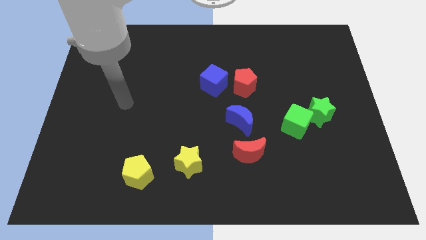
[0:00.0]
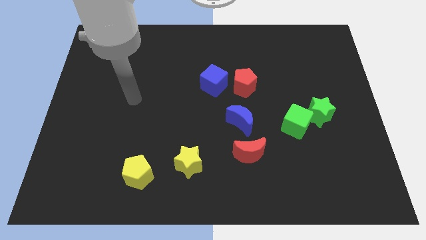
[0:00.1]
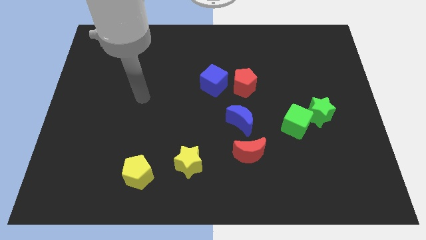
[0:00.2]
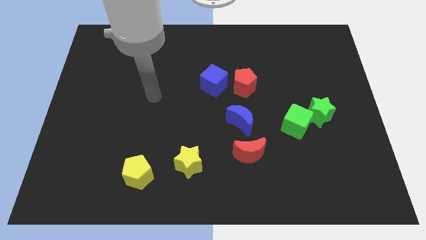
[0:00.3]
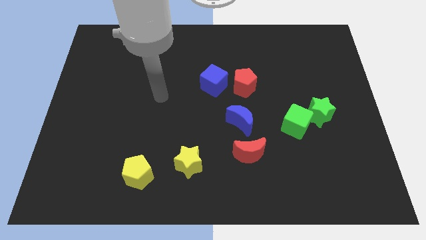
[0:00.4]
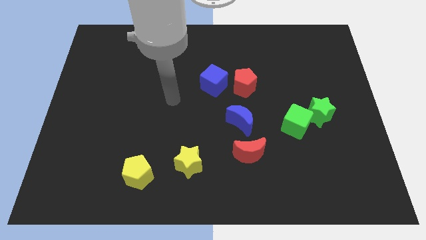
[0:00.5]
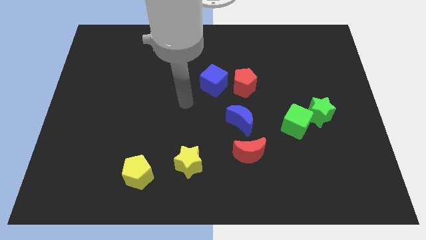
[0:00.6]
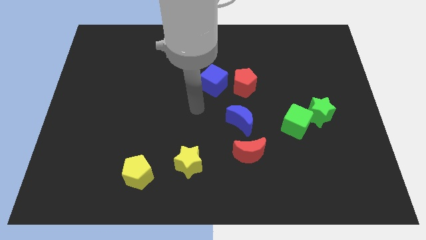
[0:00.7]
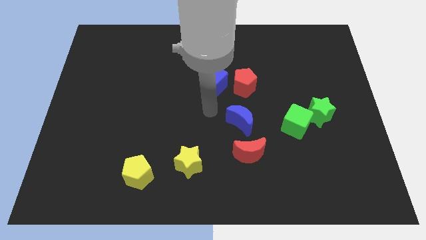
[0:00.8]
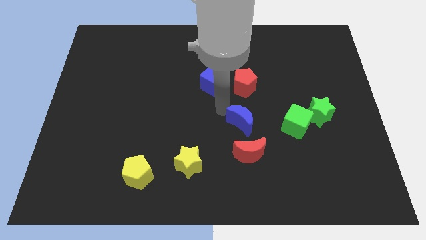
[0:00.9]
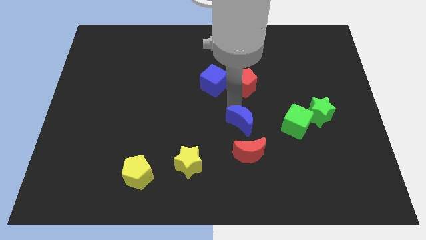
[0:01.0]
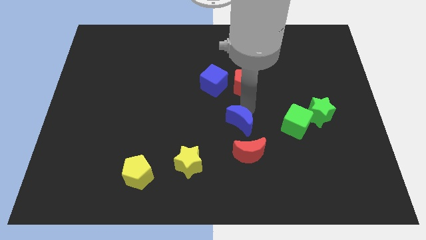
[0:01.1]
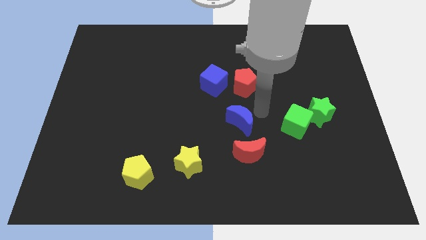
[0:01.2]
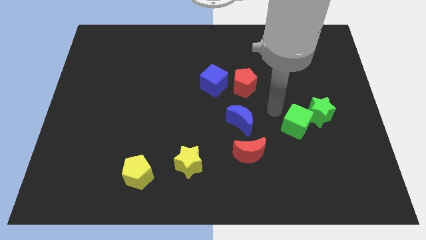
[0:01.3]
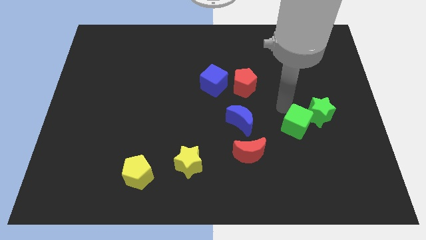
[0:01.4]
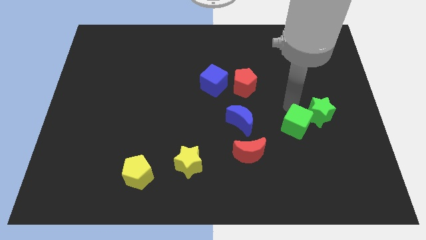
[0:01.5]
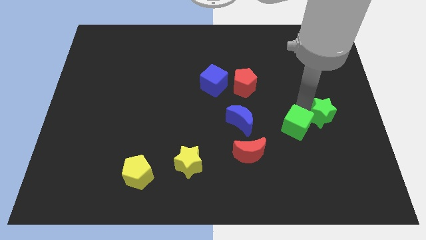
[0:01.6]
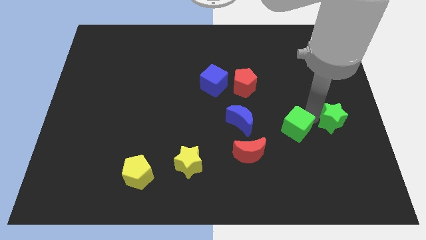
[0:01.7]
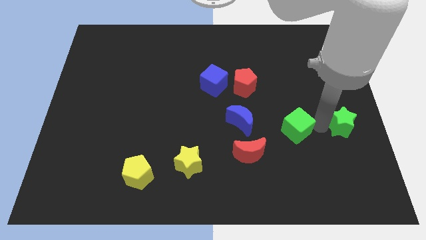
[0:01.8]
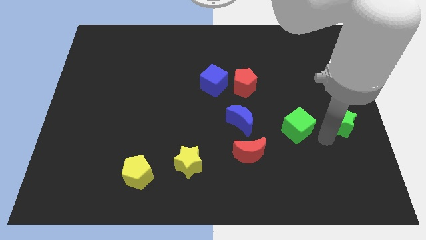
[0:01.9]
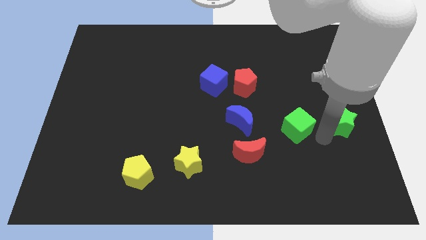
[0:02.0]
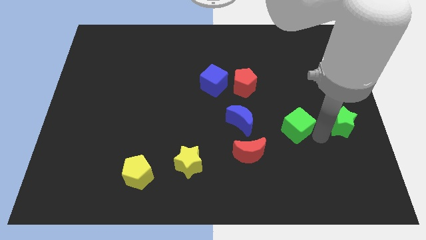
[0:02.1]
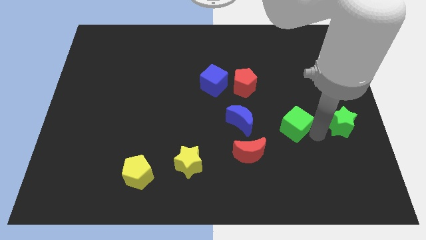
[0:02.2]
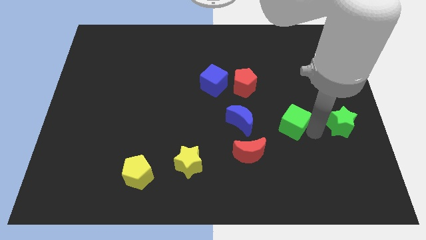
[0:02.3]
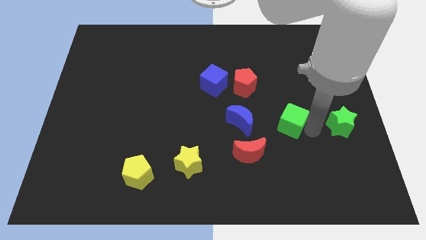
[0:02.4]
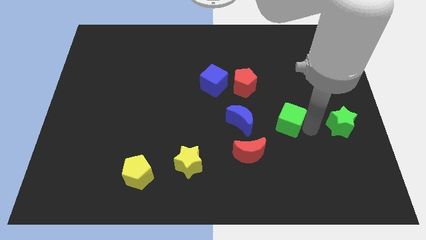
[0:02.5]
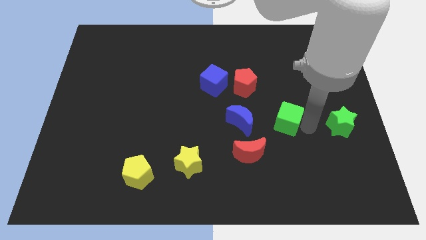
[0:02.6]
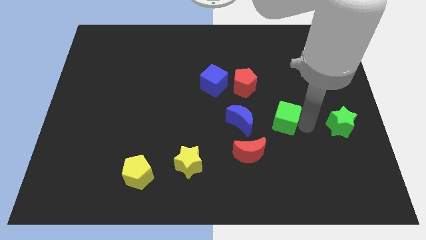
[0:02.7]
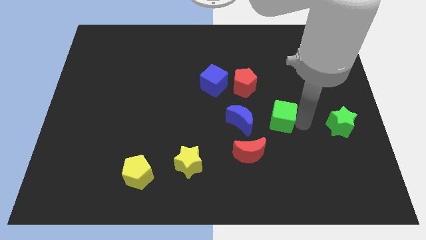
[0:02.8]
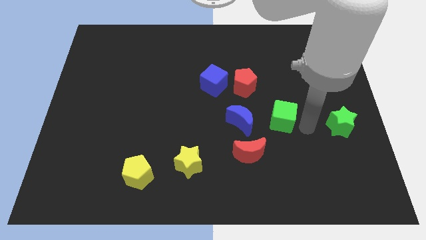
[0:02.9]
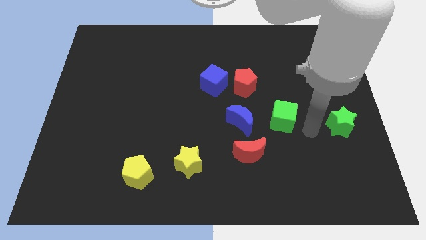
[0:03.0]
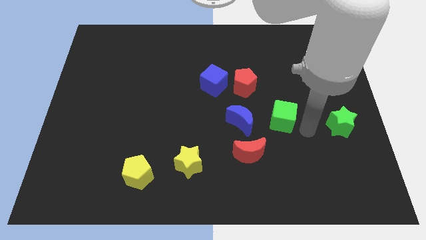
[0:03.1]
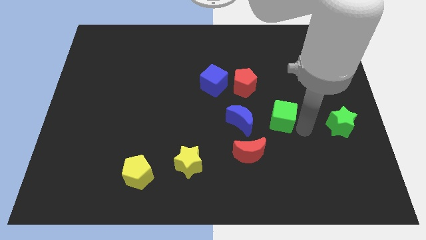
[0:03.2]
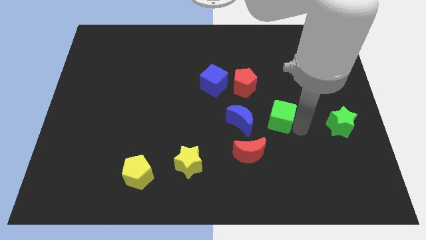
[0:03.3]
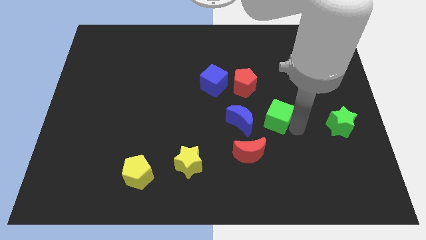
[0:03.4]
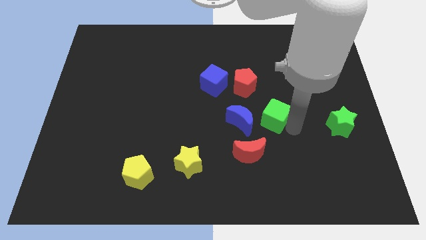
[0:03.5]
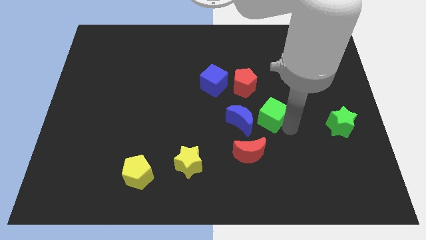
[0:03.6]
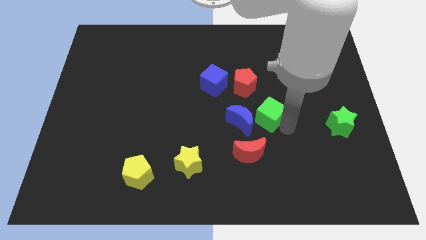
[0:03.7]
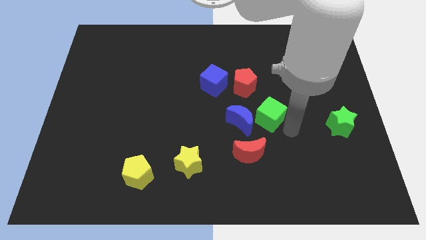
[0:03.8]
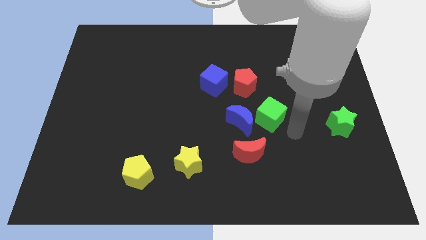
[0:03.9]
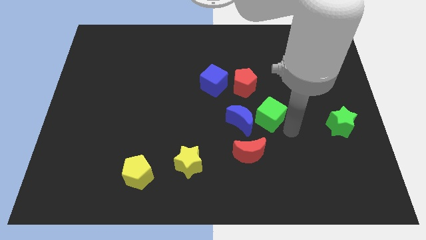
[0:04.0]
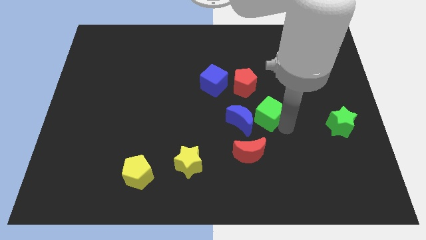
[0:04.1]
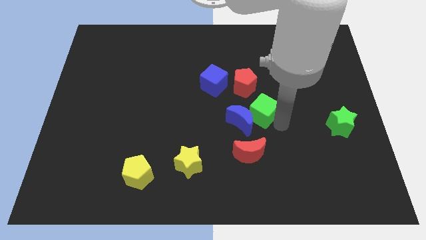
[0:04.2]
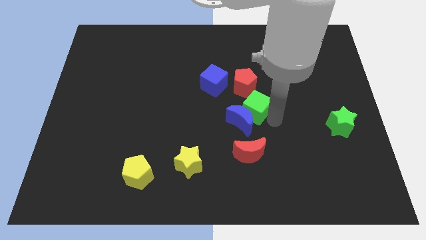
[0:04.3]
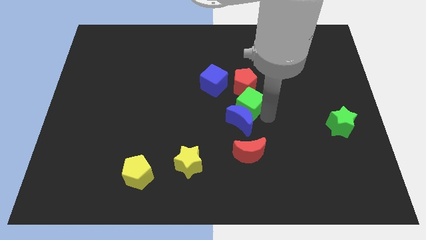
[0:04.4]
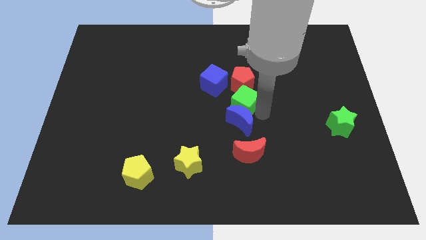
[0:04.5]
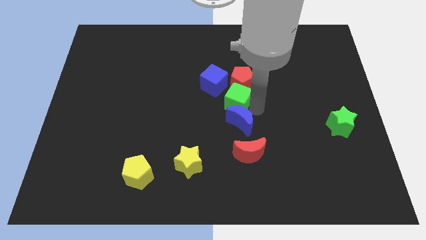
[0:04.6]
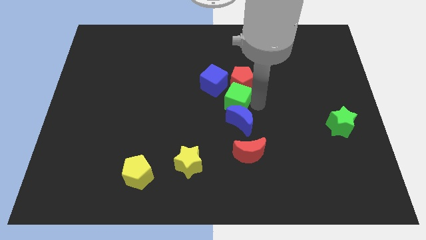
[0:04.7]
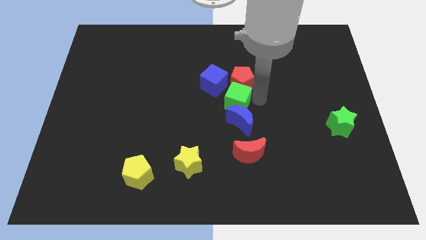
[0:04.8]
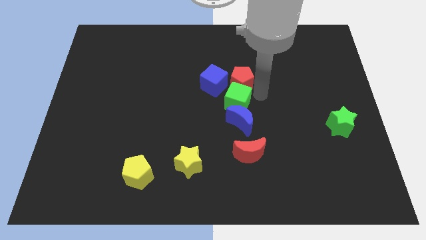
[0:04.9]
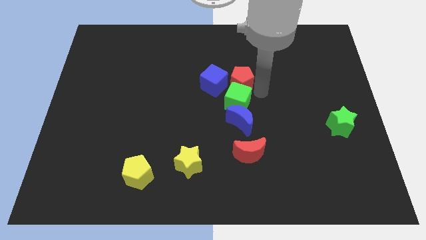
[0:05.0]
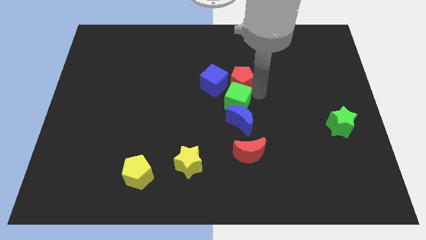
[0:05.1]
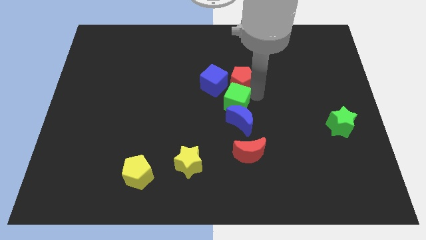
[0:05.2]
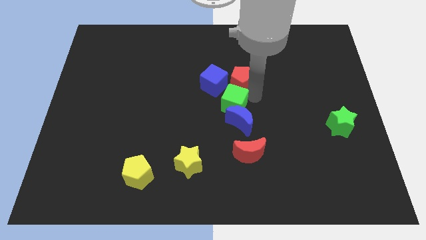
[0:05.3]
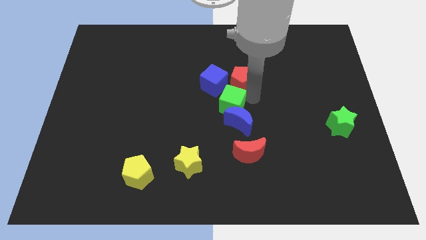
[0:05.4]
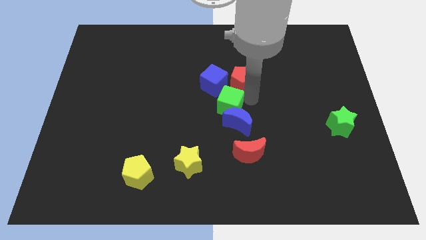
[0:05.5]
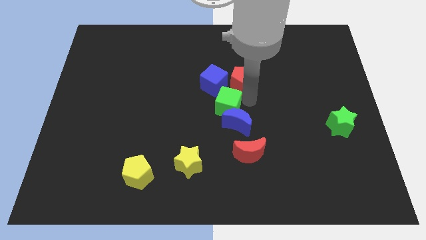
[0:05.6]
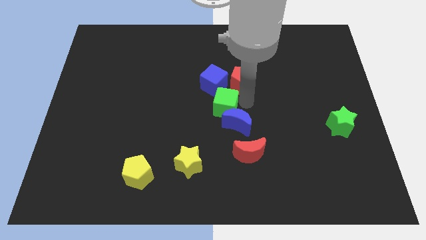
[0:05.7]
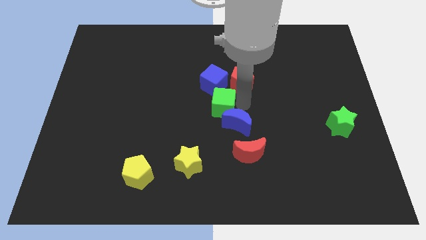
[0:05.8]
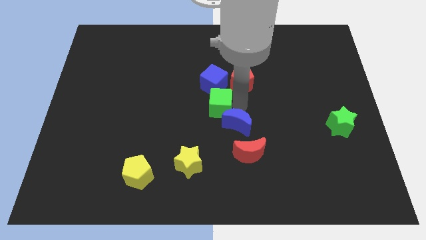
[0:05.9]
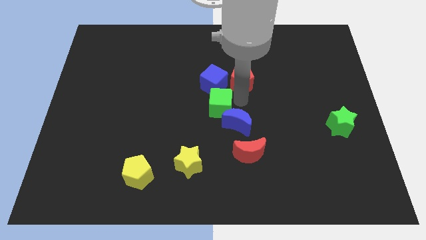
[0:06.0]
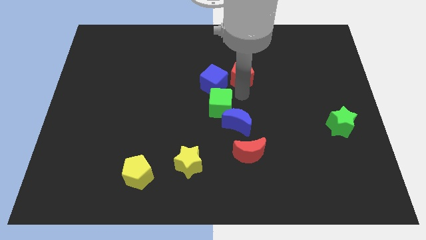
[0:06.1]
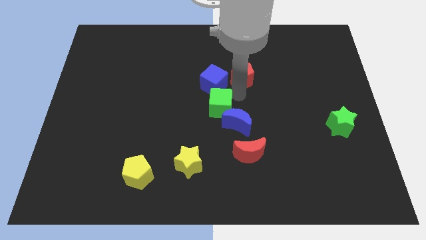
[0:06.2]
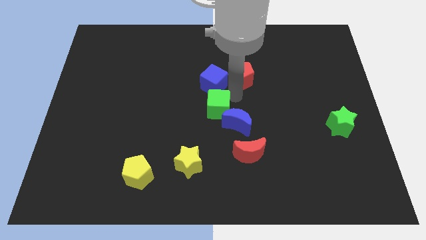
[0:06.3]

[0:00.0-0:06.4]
put the green cube just left of the blue moon

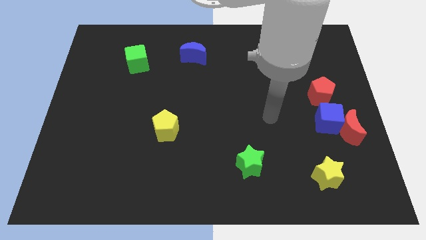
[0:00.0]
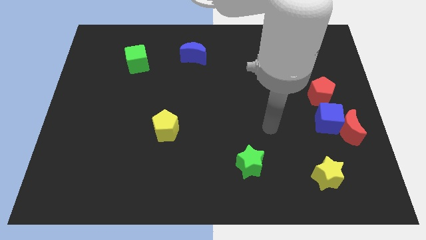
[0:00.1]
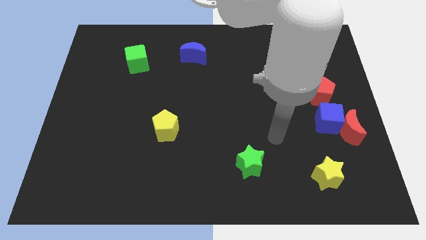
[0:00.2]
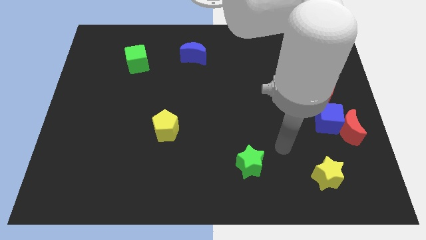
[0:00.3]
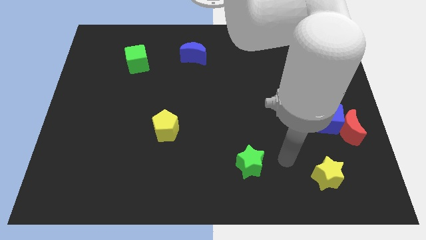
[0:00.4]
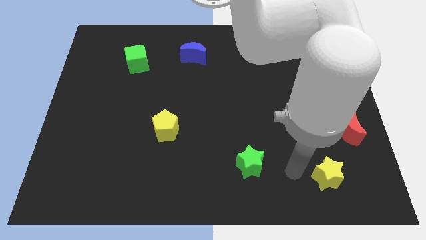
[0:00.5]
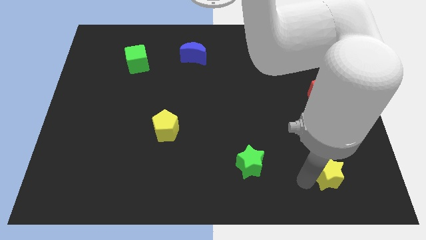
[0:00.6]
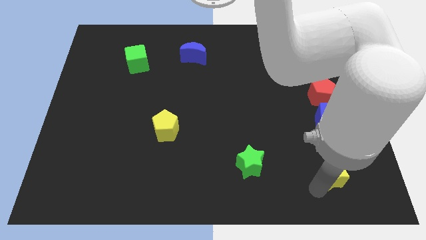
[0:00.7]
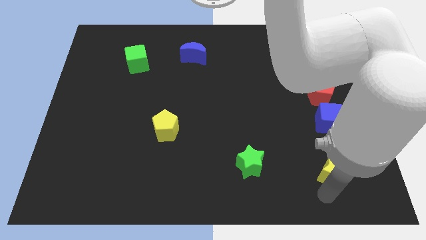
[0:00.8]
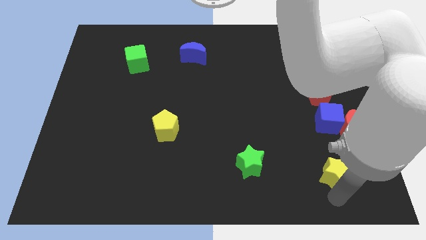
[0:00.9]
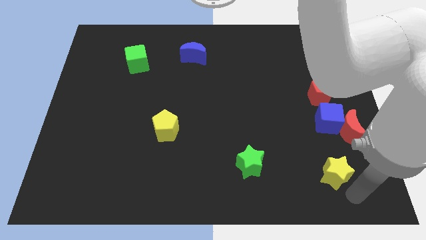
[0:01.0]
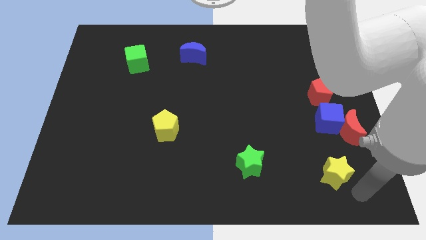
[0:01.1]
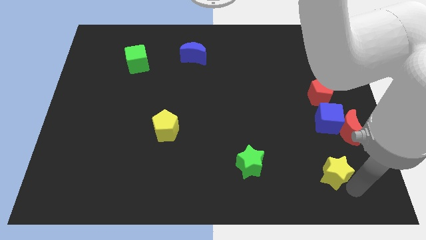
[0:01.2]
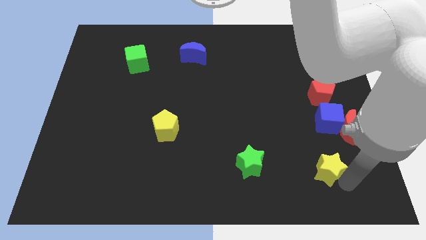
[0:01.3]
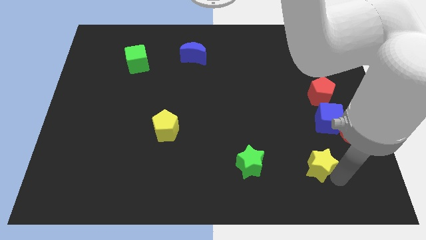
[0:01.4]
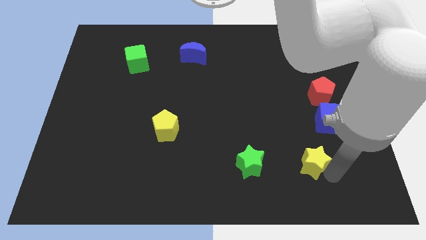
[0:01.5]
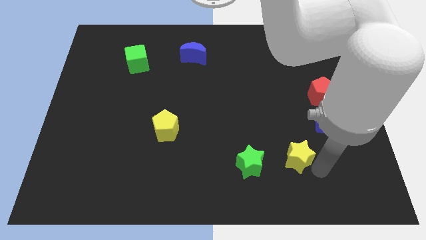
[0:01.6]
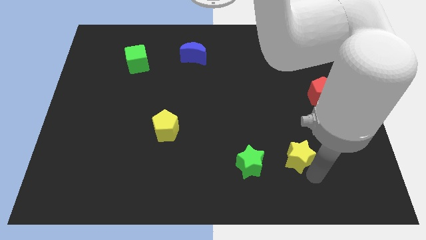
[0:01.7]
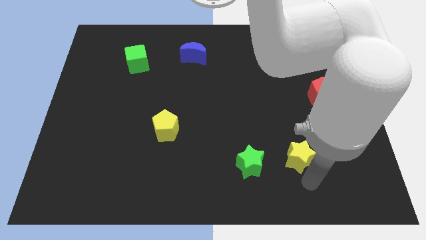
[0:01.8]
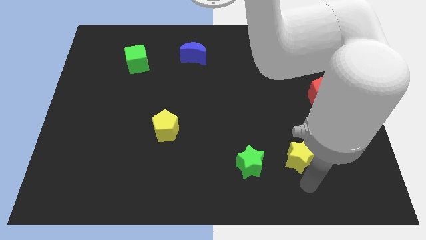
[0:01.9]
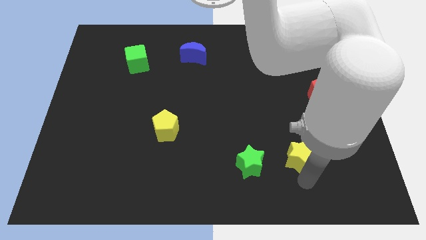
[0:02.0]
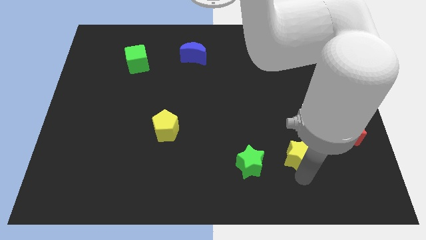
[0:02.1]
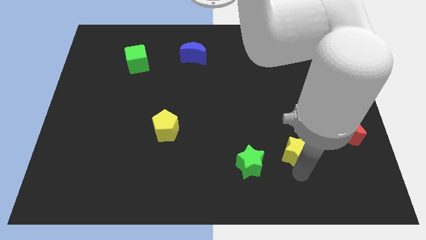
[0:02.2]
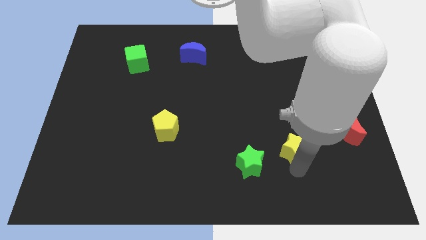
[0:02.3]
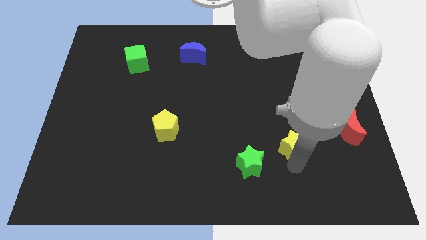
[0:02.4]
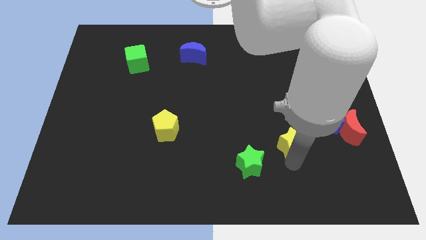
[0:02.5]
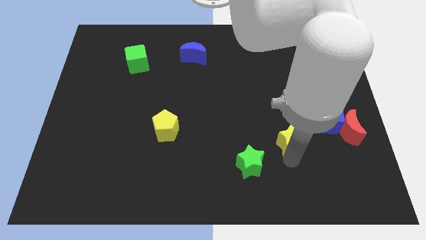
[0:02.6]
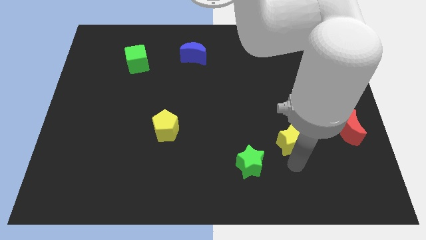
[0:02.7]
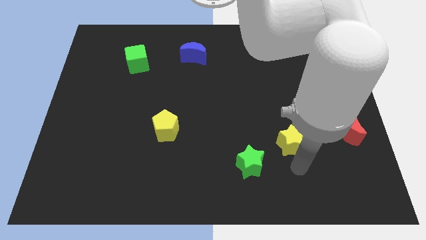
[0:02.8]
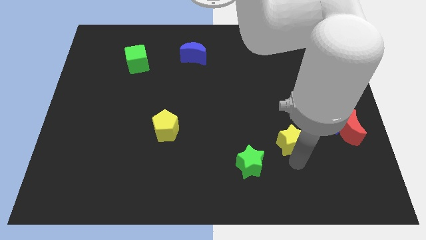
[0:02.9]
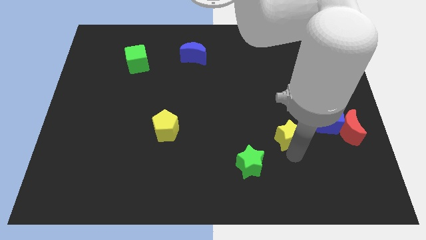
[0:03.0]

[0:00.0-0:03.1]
move the yellow star just left of the blue cube
